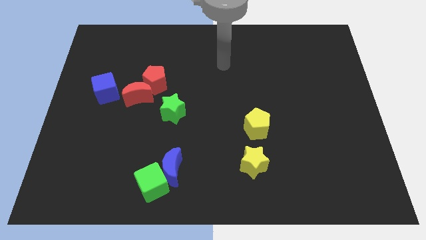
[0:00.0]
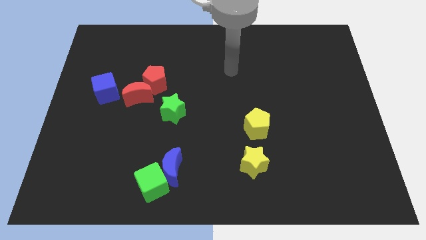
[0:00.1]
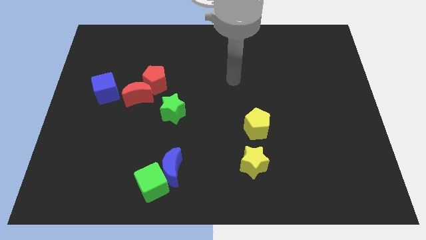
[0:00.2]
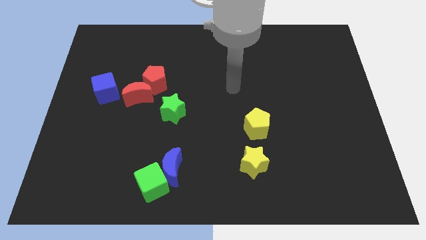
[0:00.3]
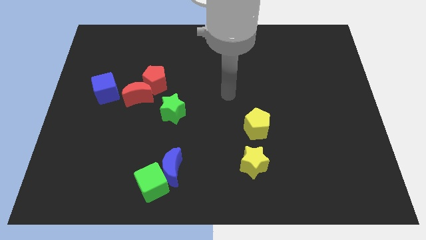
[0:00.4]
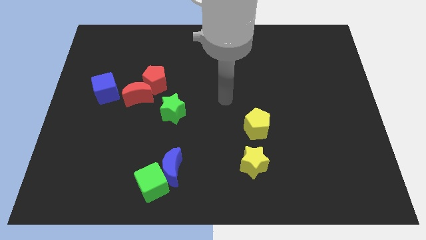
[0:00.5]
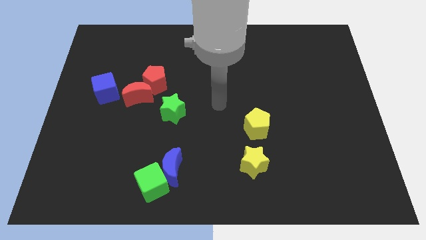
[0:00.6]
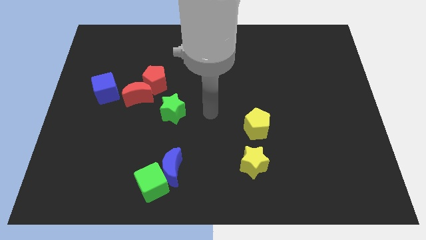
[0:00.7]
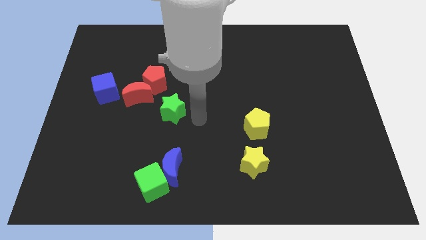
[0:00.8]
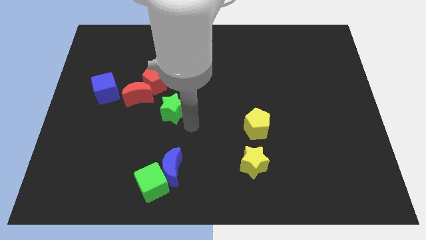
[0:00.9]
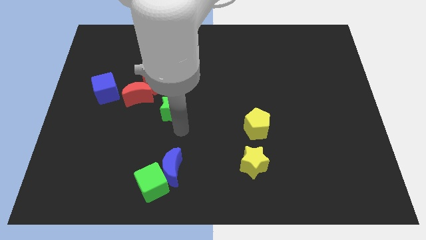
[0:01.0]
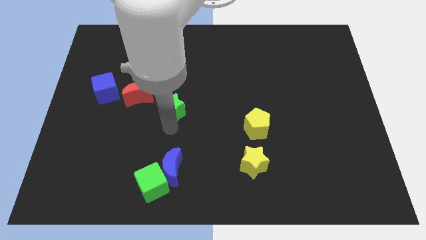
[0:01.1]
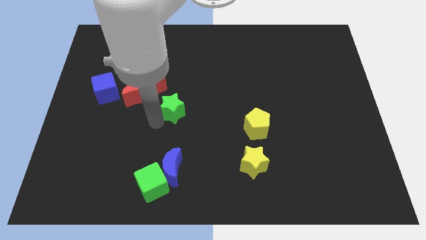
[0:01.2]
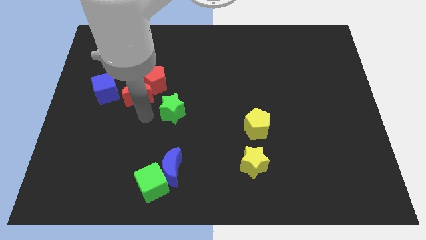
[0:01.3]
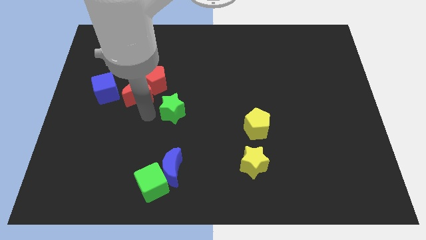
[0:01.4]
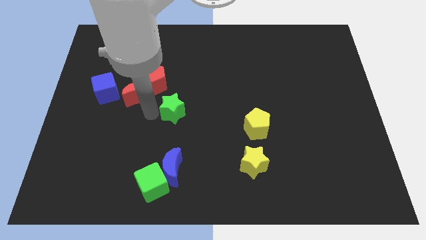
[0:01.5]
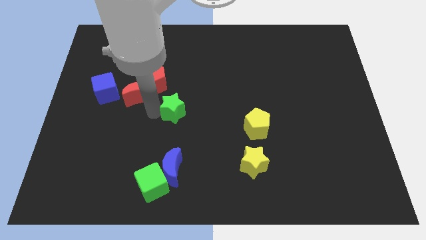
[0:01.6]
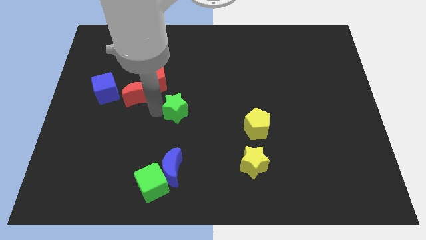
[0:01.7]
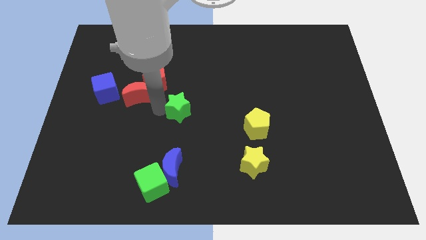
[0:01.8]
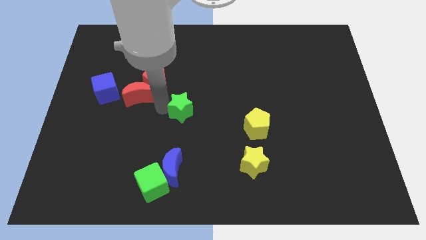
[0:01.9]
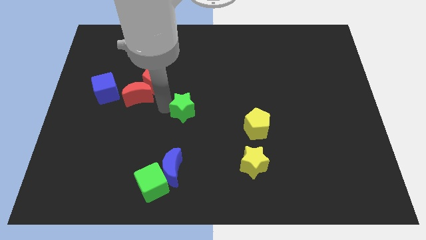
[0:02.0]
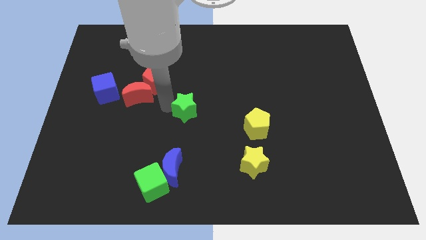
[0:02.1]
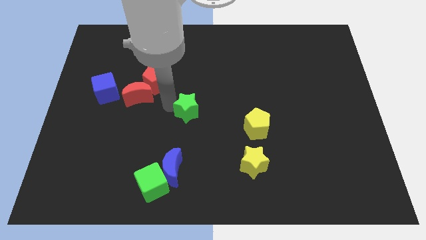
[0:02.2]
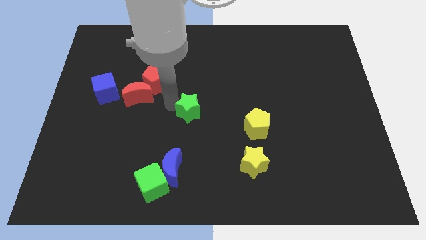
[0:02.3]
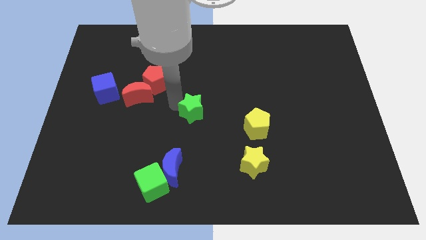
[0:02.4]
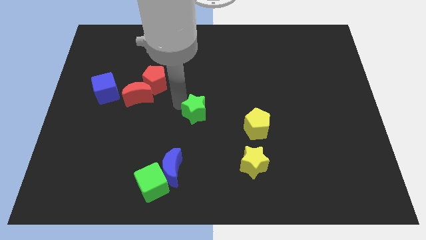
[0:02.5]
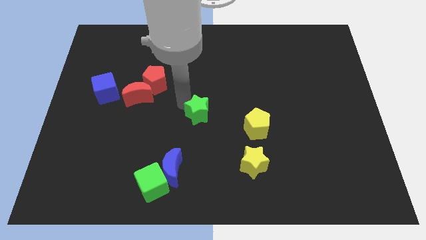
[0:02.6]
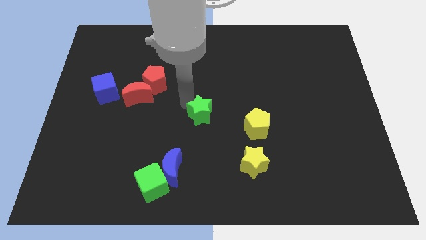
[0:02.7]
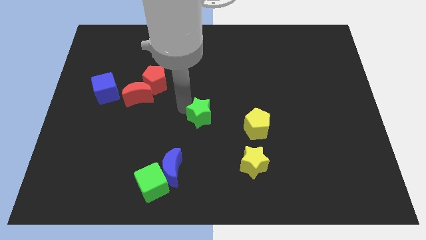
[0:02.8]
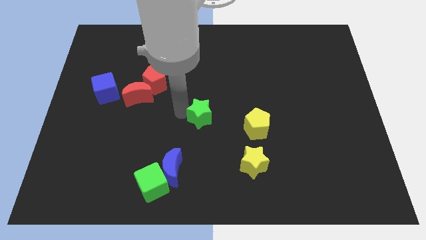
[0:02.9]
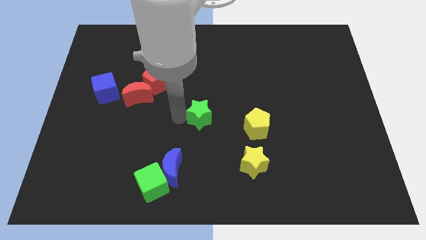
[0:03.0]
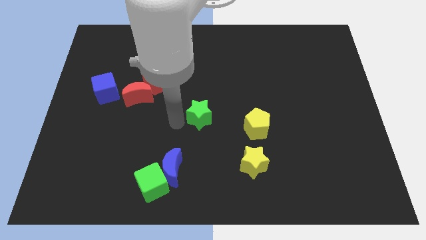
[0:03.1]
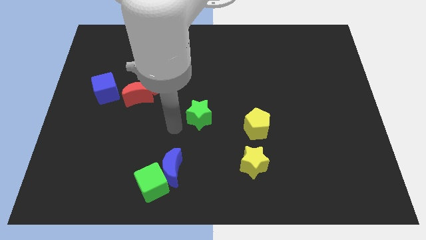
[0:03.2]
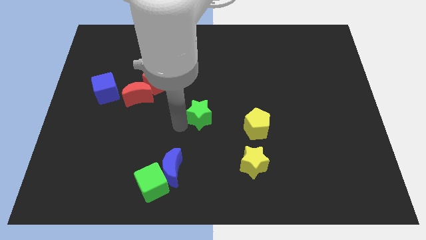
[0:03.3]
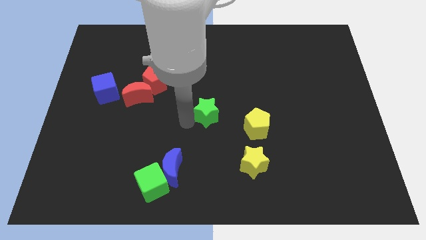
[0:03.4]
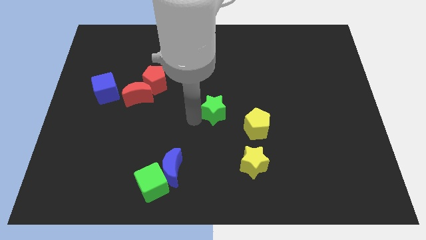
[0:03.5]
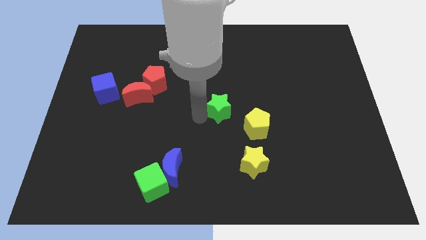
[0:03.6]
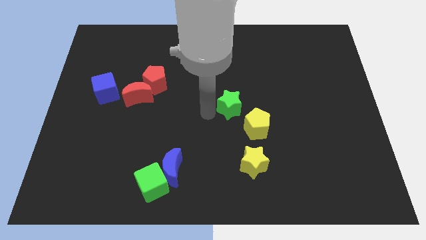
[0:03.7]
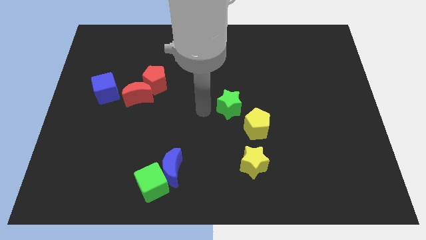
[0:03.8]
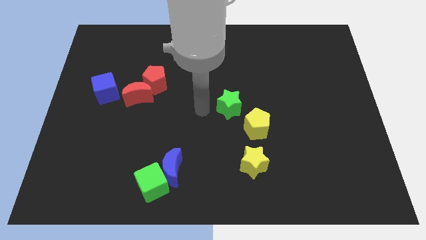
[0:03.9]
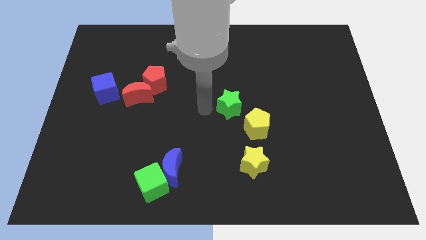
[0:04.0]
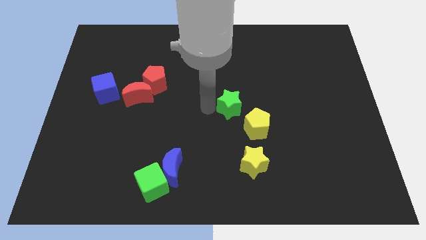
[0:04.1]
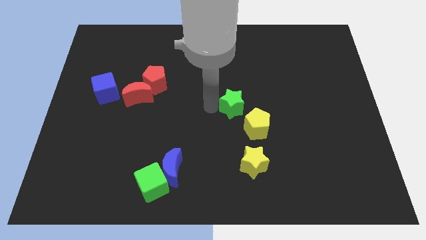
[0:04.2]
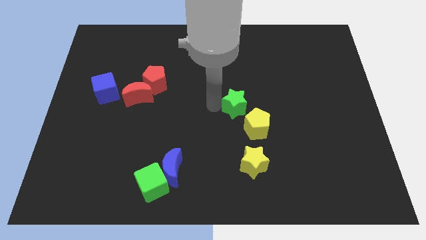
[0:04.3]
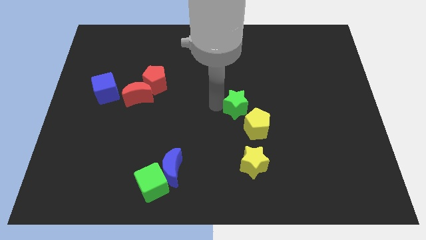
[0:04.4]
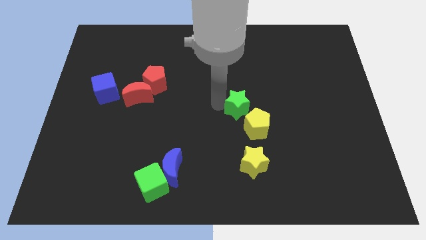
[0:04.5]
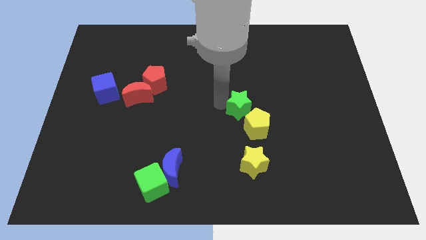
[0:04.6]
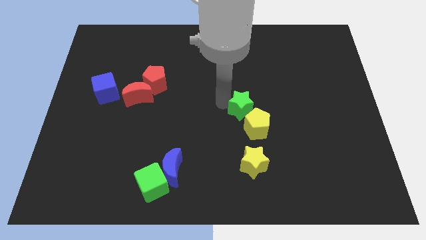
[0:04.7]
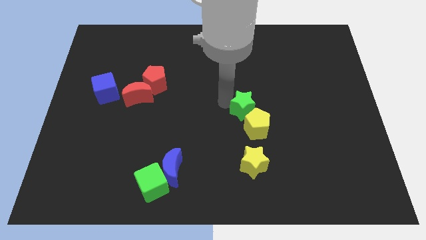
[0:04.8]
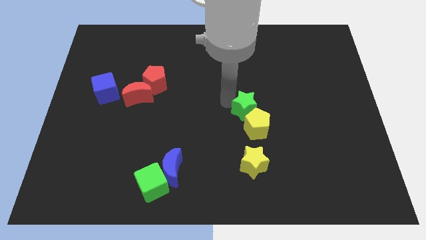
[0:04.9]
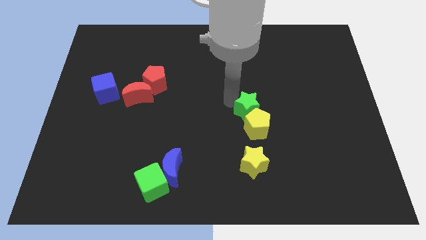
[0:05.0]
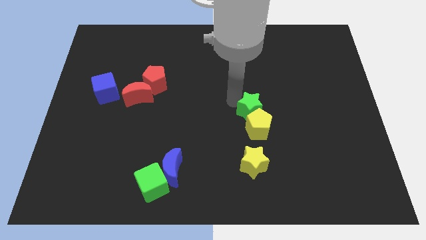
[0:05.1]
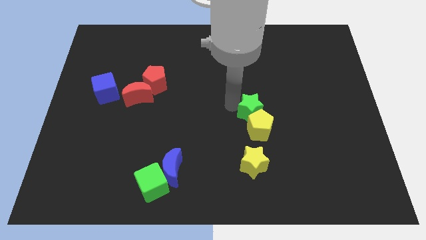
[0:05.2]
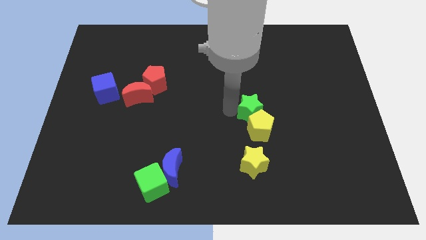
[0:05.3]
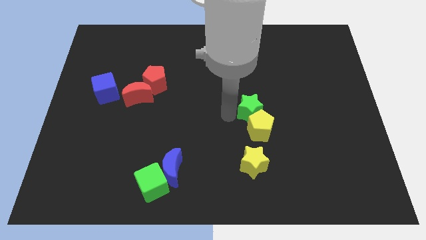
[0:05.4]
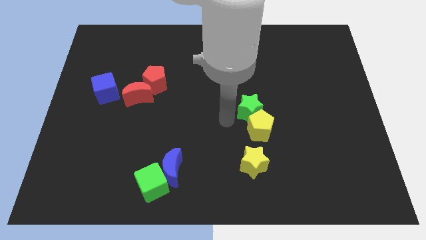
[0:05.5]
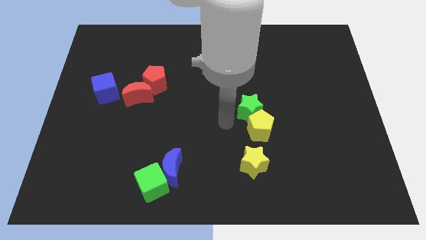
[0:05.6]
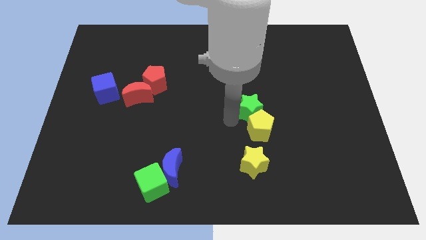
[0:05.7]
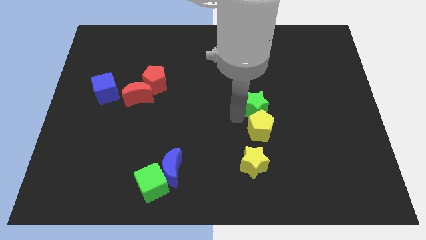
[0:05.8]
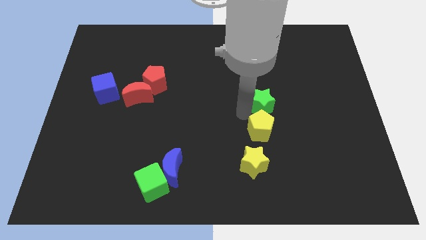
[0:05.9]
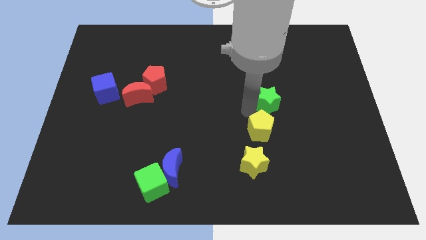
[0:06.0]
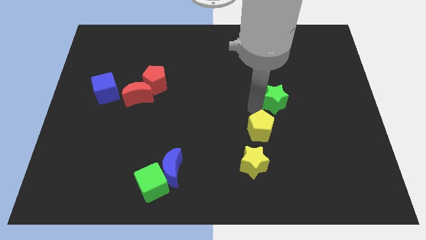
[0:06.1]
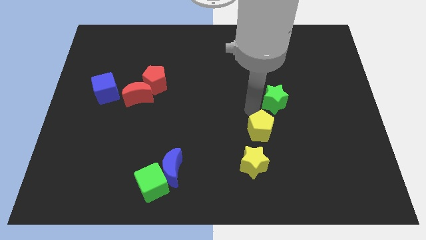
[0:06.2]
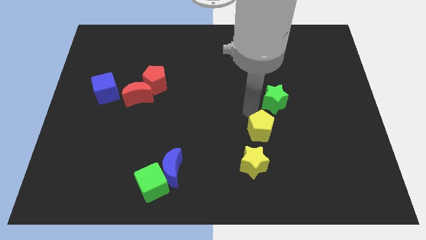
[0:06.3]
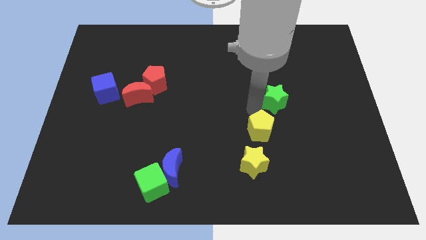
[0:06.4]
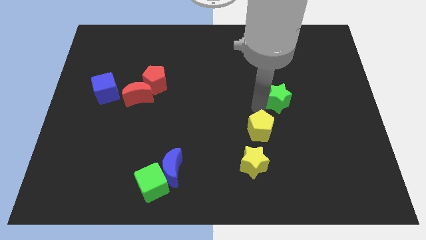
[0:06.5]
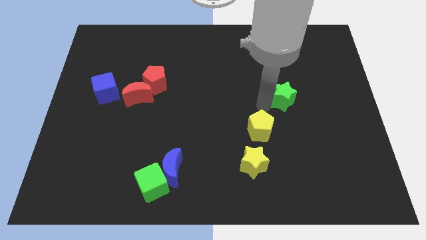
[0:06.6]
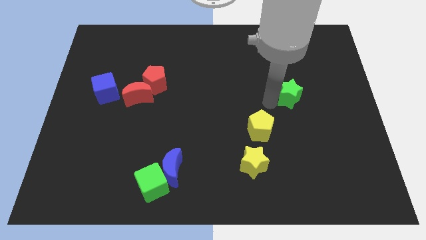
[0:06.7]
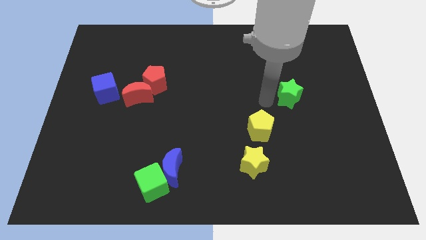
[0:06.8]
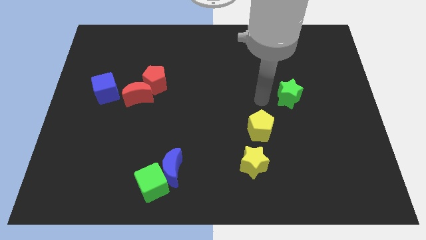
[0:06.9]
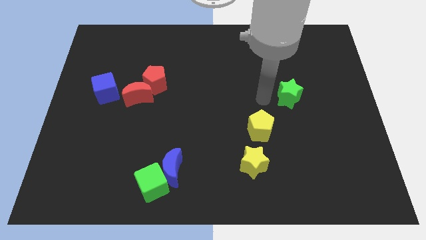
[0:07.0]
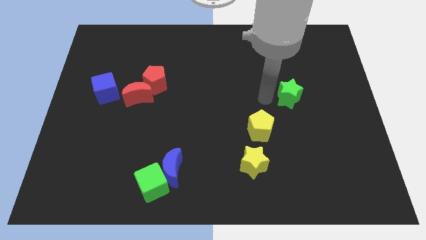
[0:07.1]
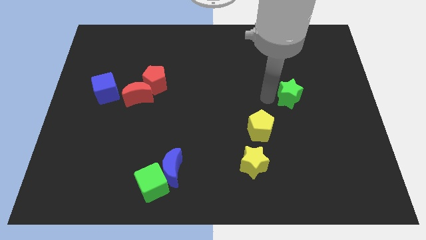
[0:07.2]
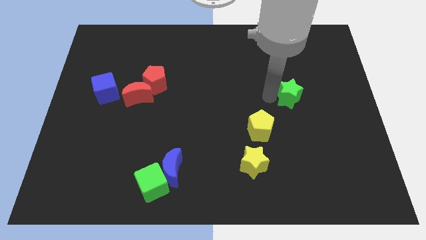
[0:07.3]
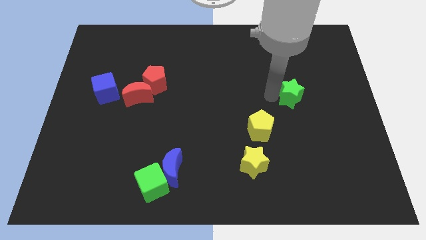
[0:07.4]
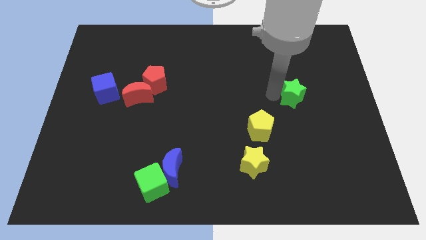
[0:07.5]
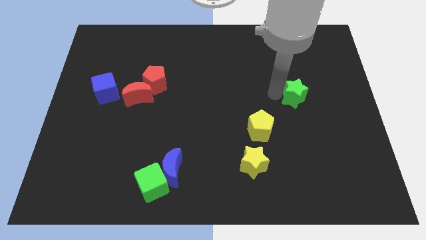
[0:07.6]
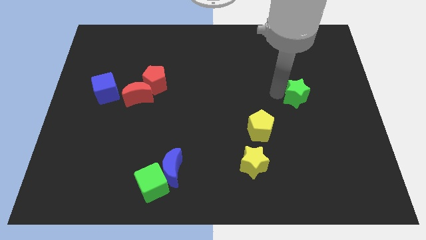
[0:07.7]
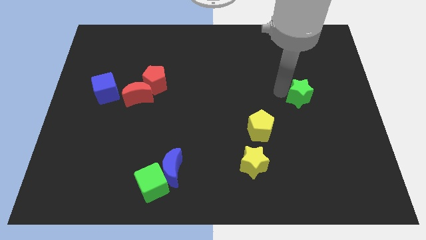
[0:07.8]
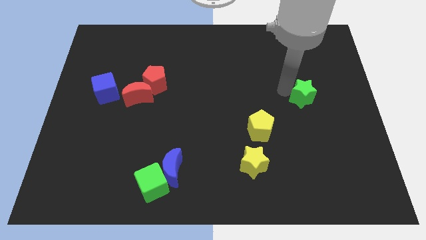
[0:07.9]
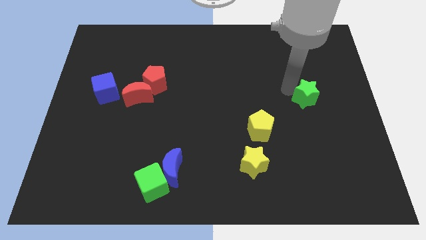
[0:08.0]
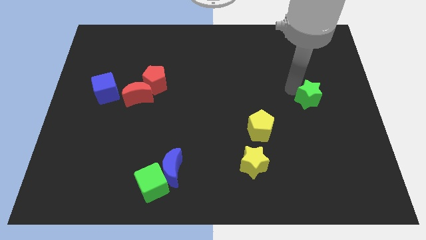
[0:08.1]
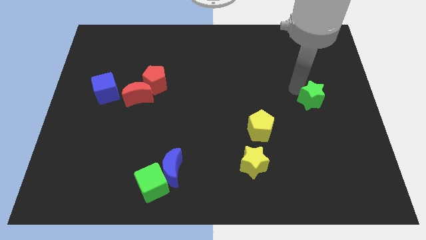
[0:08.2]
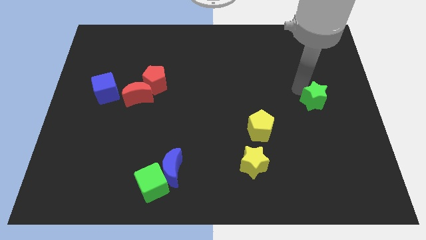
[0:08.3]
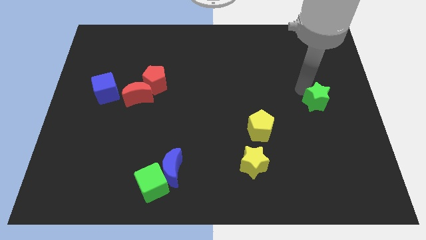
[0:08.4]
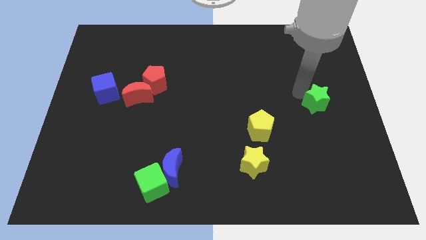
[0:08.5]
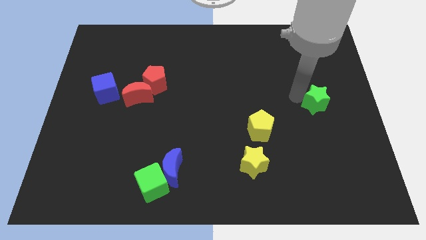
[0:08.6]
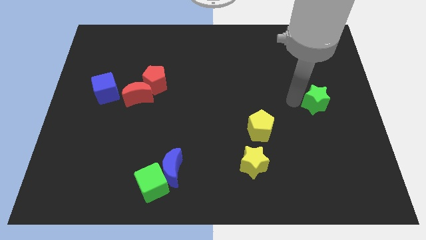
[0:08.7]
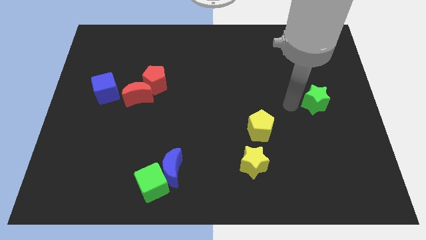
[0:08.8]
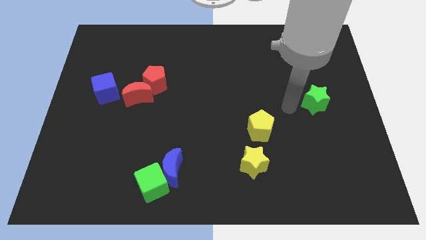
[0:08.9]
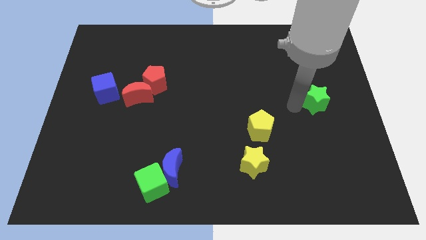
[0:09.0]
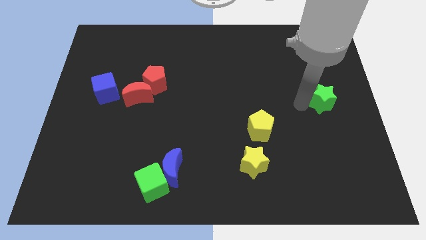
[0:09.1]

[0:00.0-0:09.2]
push the green star to the right side of the board
